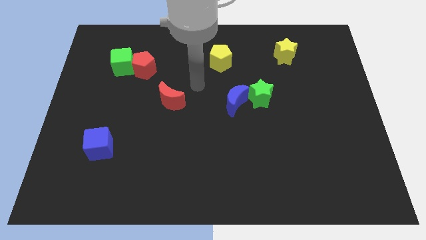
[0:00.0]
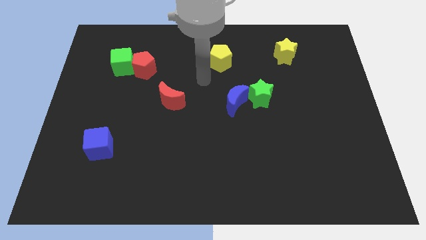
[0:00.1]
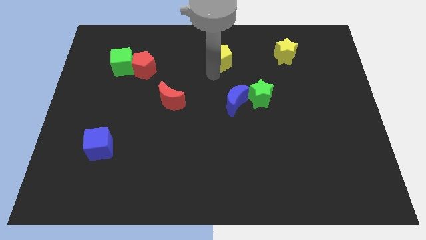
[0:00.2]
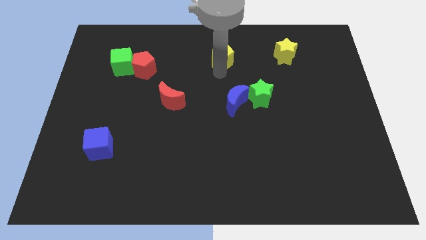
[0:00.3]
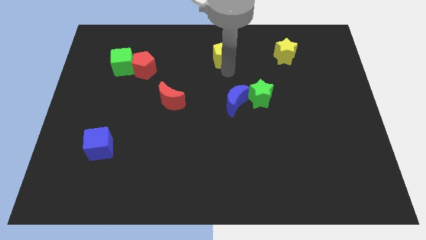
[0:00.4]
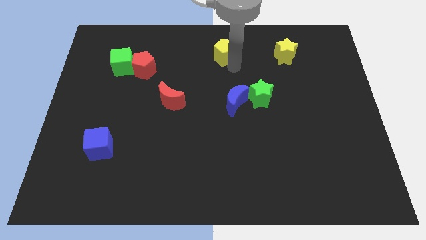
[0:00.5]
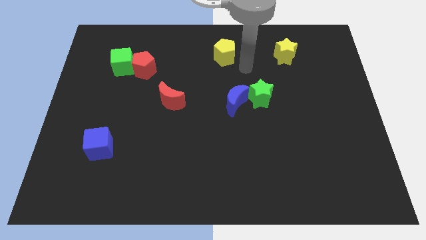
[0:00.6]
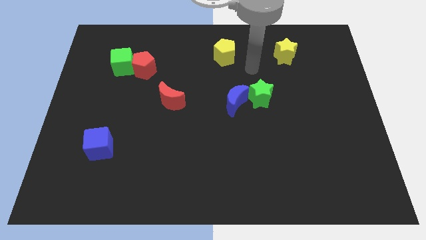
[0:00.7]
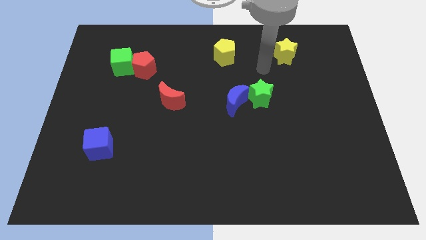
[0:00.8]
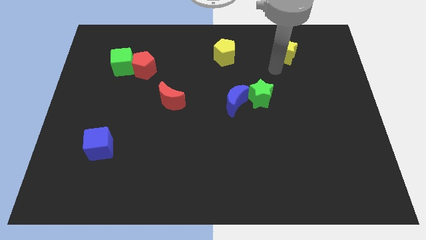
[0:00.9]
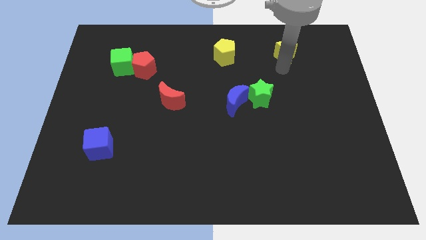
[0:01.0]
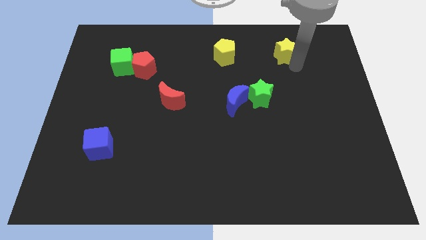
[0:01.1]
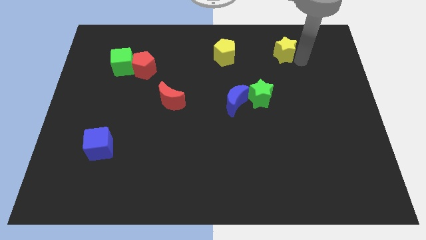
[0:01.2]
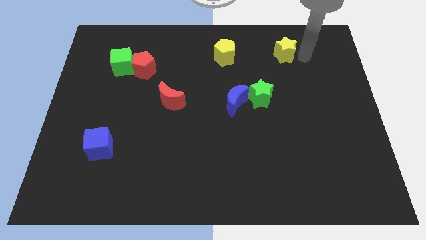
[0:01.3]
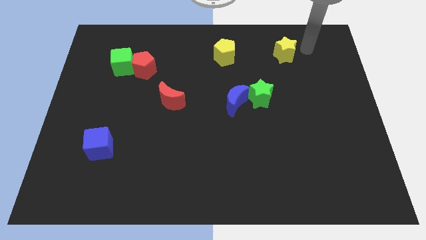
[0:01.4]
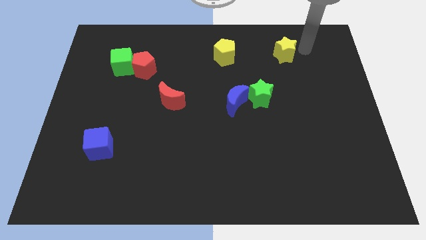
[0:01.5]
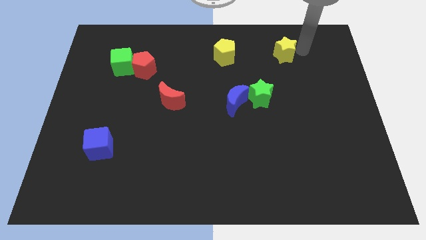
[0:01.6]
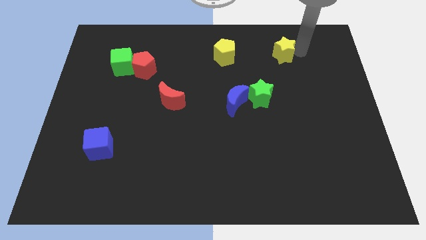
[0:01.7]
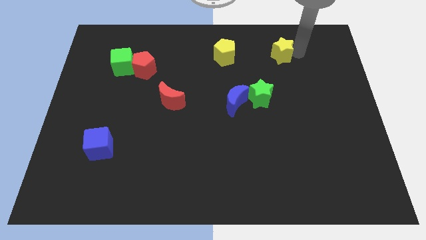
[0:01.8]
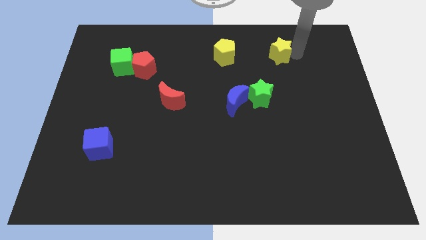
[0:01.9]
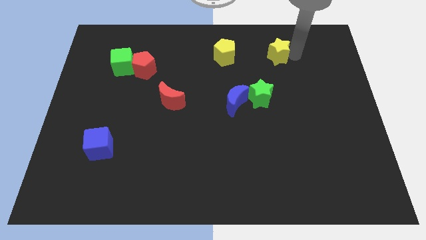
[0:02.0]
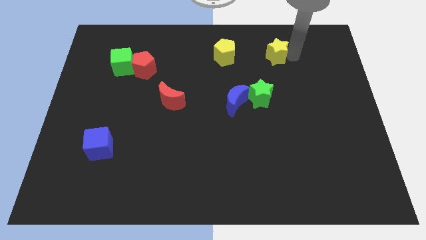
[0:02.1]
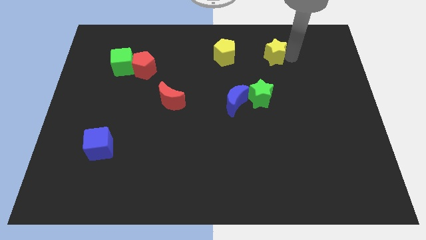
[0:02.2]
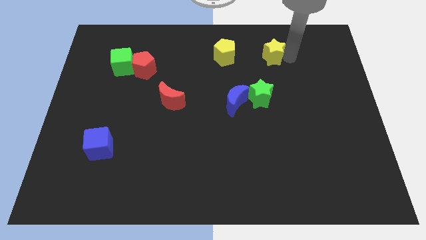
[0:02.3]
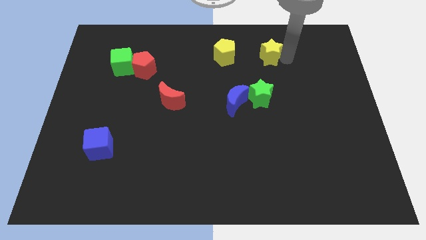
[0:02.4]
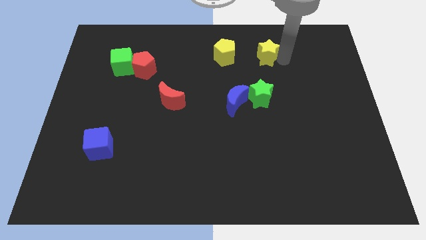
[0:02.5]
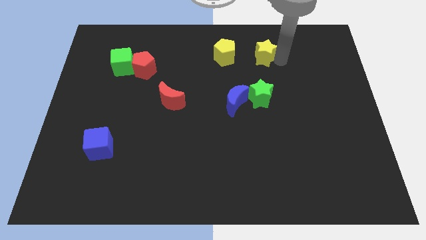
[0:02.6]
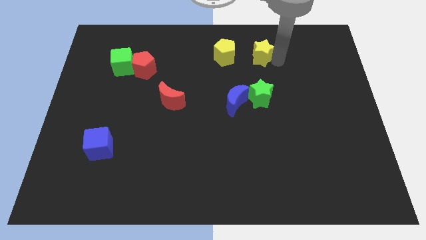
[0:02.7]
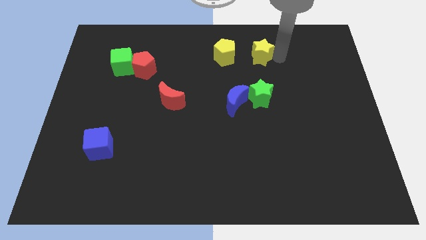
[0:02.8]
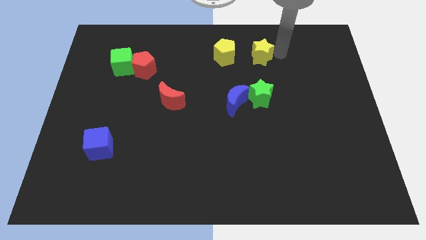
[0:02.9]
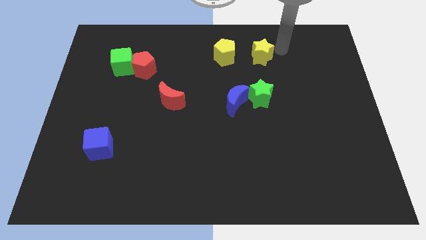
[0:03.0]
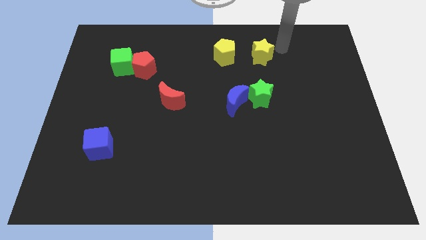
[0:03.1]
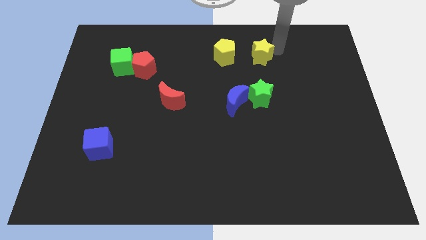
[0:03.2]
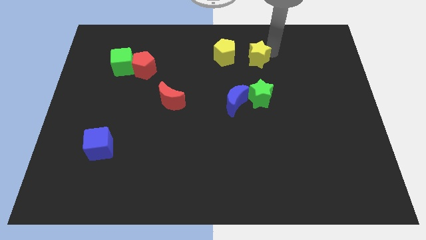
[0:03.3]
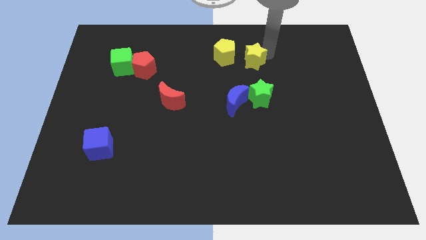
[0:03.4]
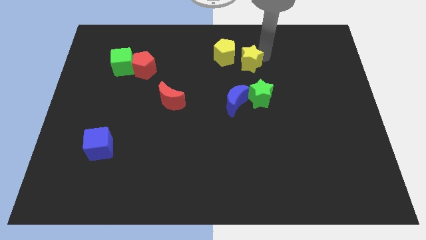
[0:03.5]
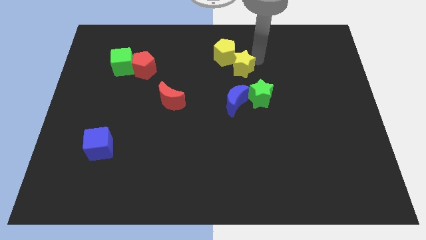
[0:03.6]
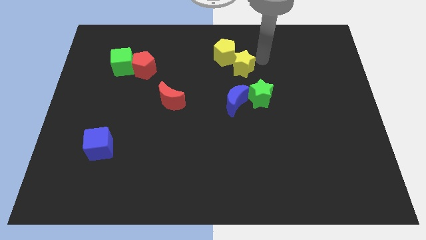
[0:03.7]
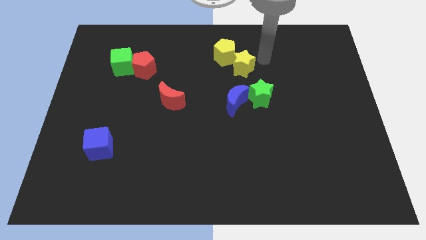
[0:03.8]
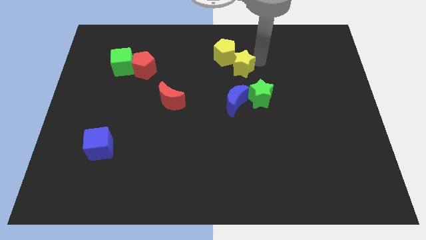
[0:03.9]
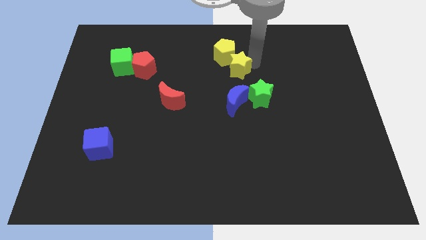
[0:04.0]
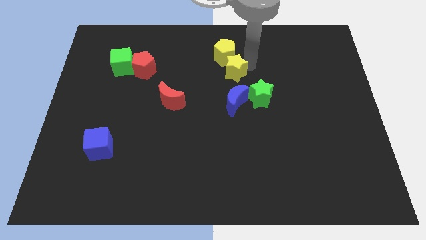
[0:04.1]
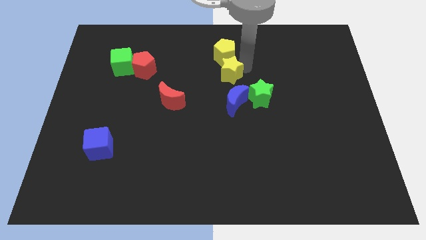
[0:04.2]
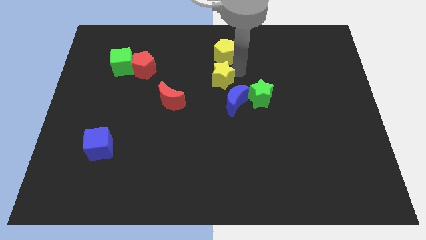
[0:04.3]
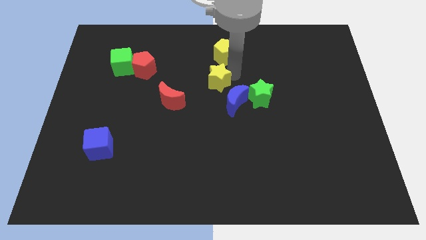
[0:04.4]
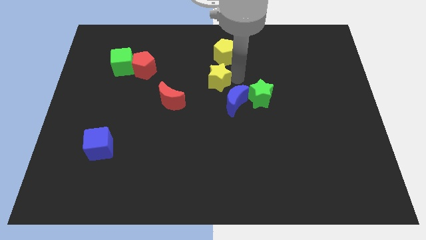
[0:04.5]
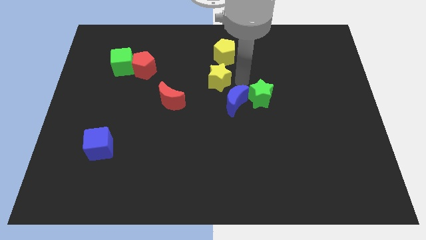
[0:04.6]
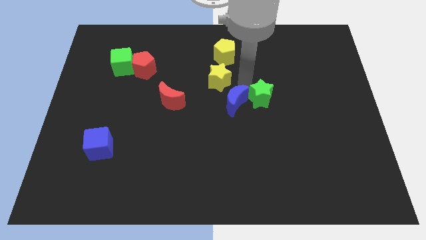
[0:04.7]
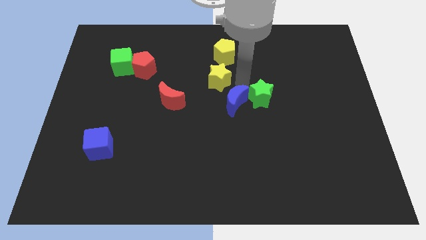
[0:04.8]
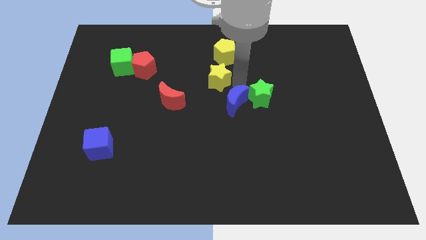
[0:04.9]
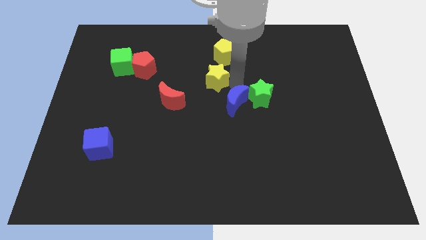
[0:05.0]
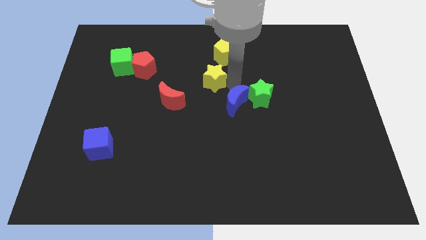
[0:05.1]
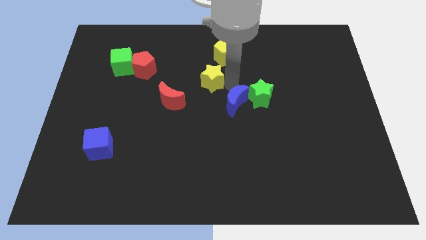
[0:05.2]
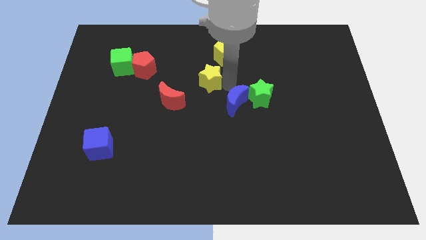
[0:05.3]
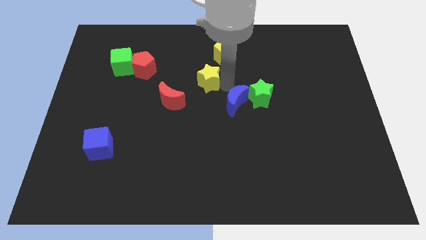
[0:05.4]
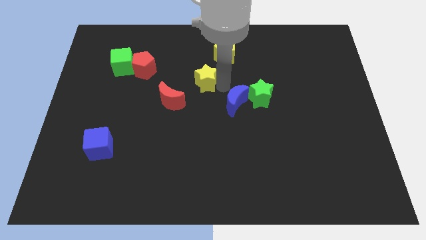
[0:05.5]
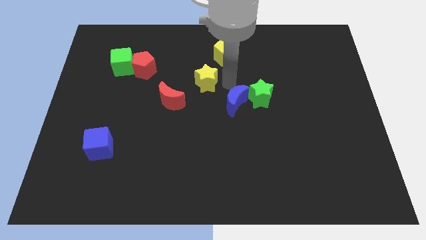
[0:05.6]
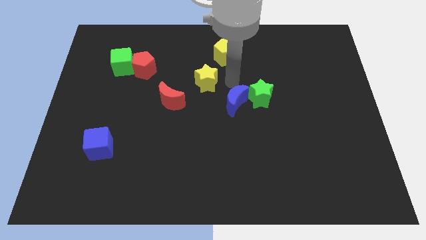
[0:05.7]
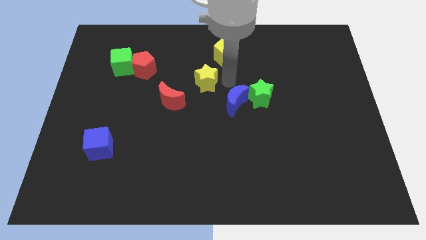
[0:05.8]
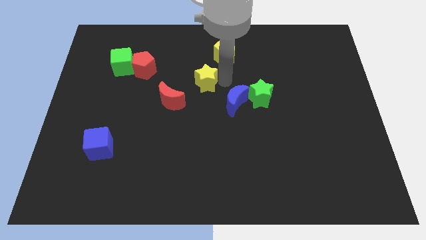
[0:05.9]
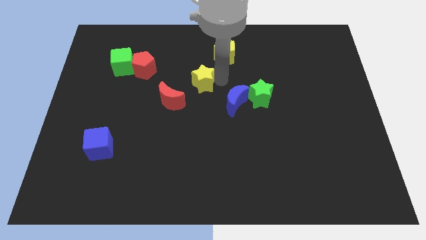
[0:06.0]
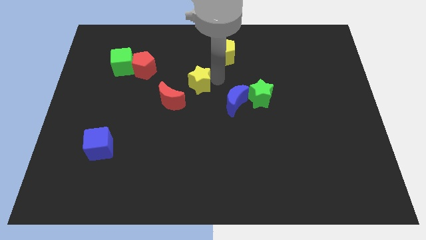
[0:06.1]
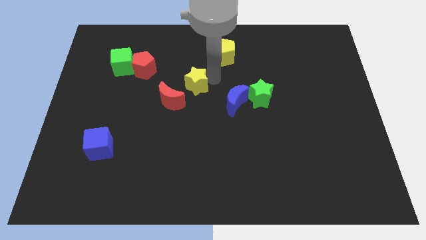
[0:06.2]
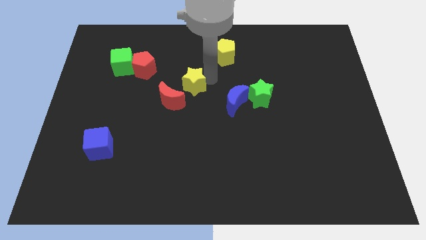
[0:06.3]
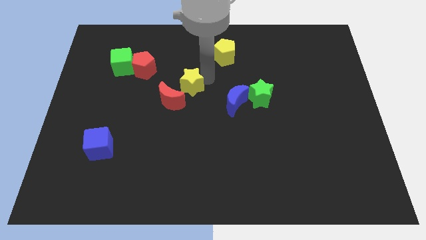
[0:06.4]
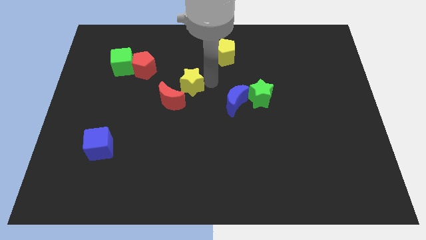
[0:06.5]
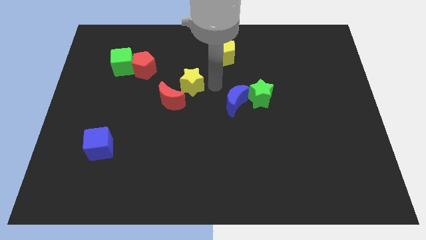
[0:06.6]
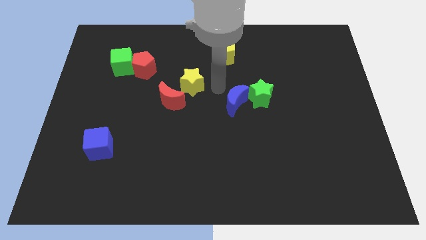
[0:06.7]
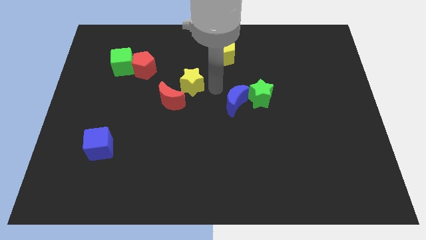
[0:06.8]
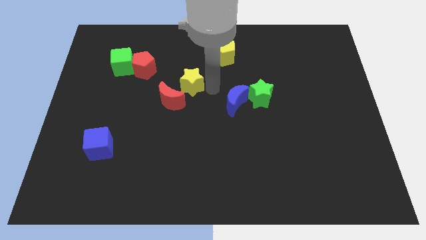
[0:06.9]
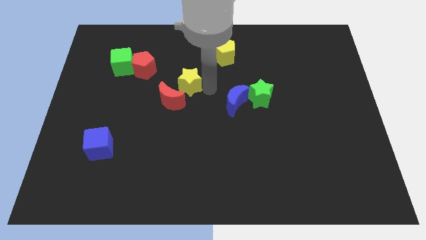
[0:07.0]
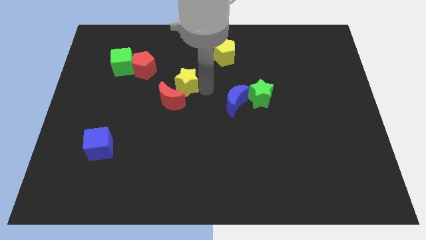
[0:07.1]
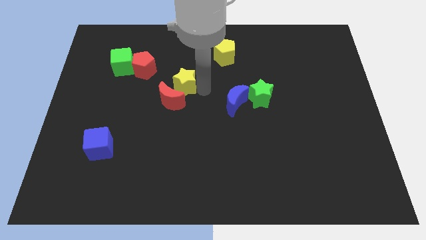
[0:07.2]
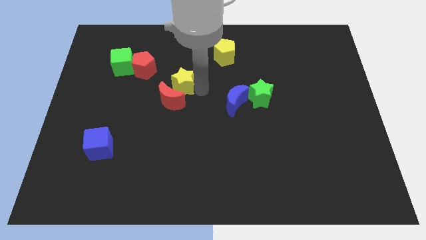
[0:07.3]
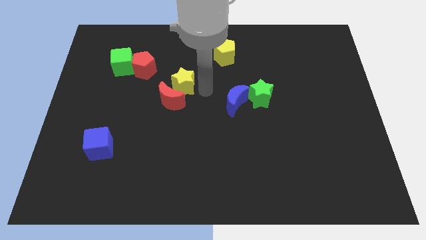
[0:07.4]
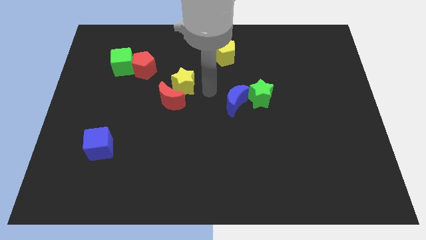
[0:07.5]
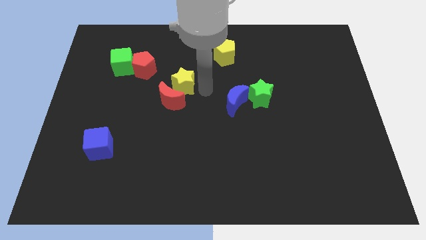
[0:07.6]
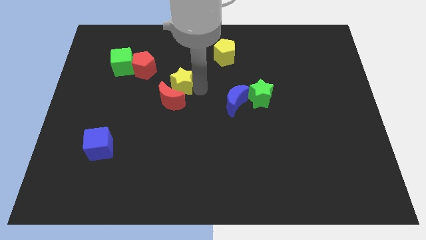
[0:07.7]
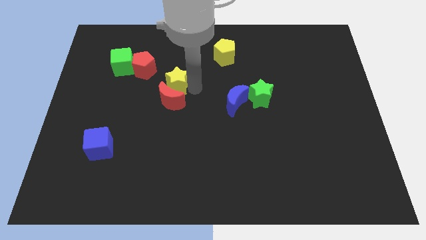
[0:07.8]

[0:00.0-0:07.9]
move the yellow star diagonally up and to the left of the red moon
